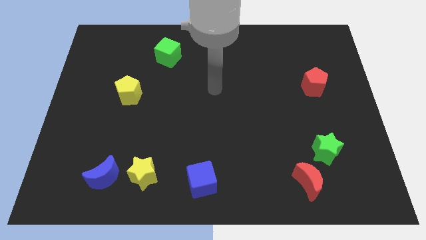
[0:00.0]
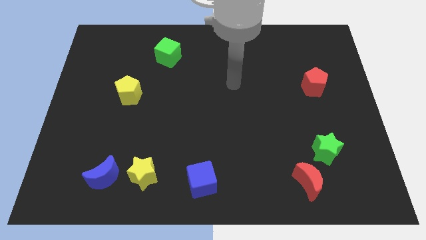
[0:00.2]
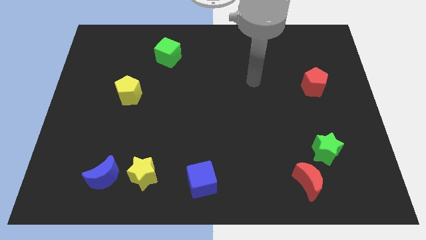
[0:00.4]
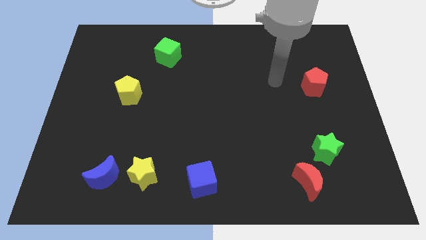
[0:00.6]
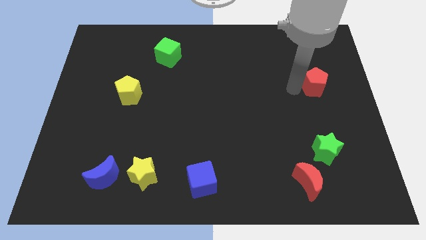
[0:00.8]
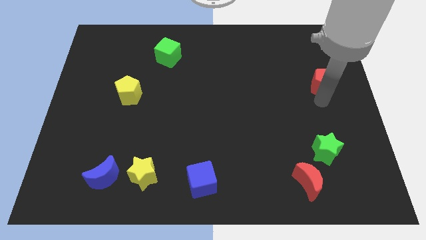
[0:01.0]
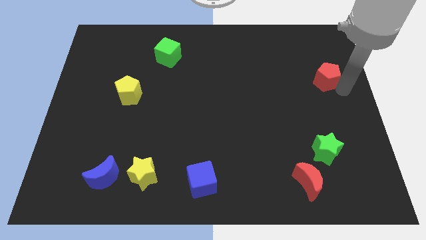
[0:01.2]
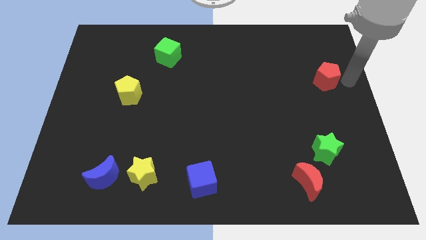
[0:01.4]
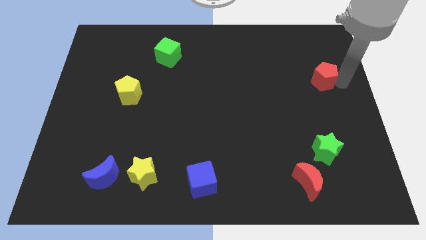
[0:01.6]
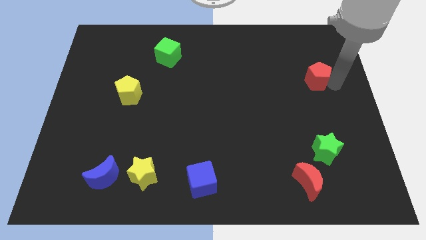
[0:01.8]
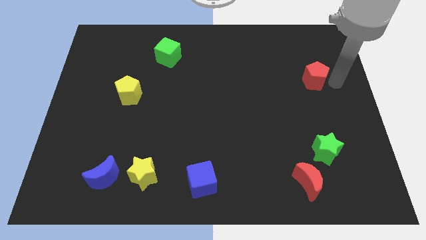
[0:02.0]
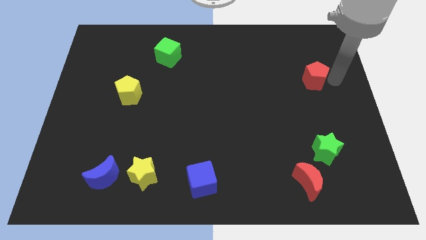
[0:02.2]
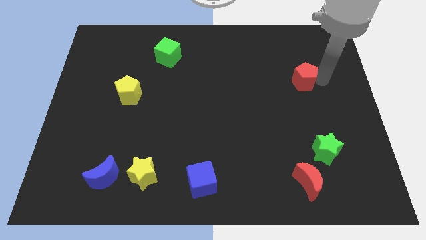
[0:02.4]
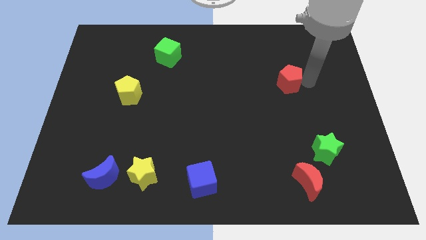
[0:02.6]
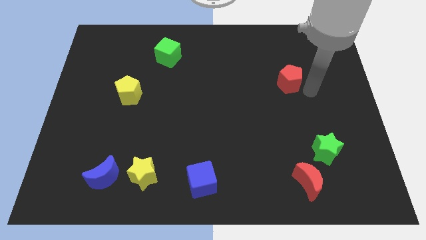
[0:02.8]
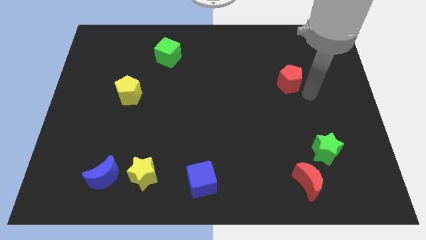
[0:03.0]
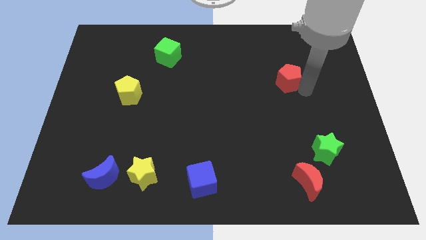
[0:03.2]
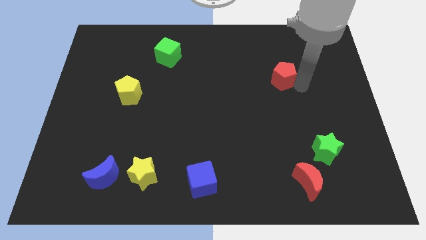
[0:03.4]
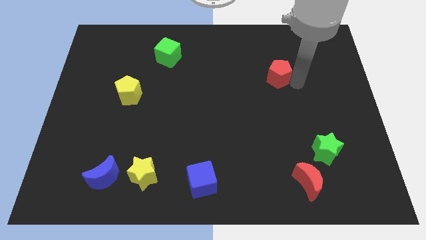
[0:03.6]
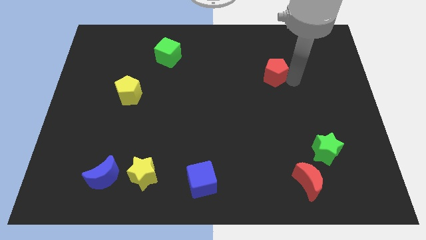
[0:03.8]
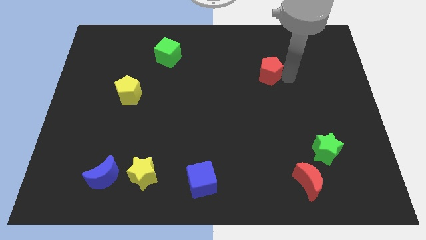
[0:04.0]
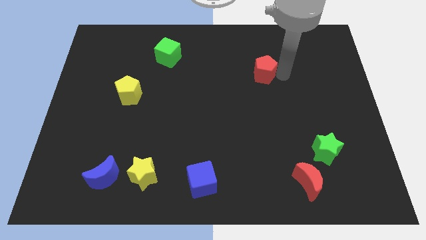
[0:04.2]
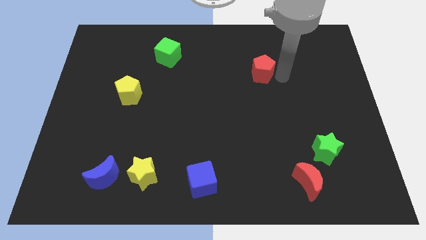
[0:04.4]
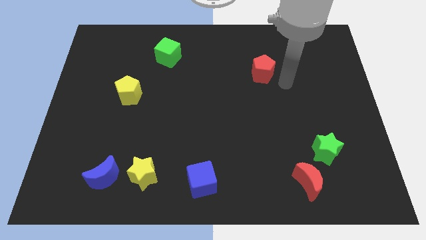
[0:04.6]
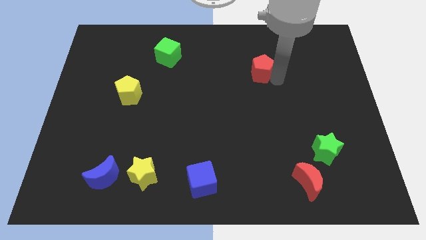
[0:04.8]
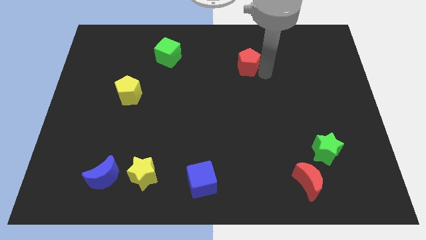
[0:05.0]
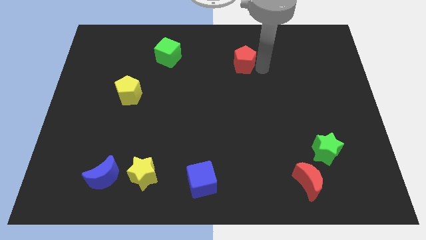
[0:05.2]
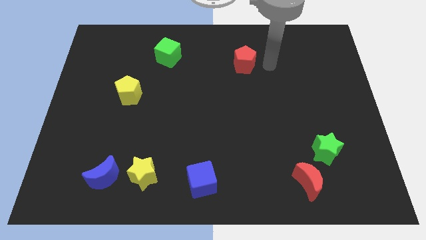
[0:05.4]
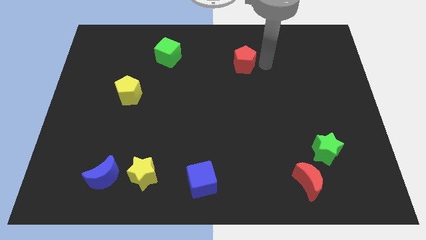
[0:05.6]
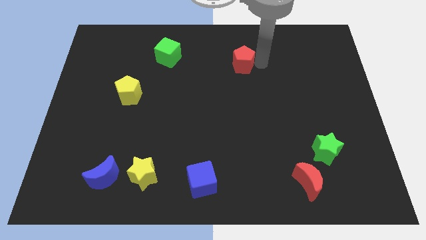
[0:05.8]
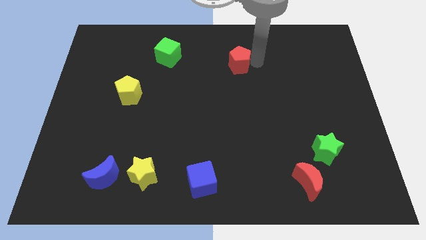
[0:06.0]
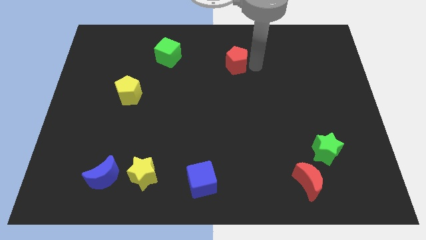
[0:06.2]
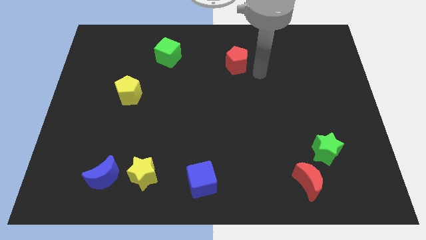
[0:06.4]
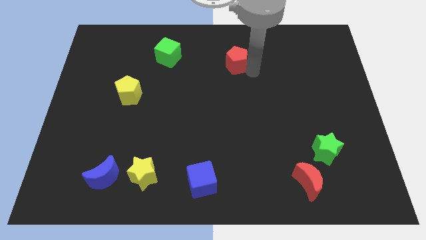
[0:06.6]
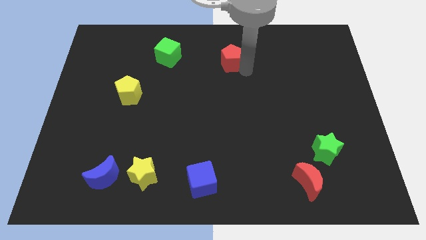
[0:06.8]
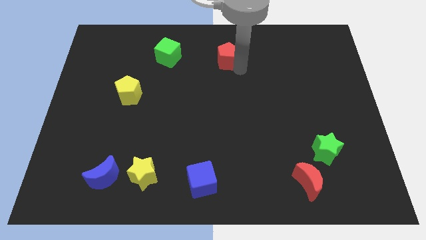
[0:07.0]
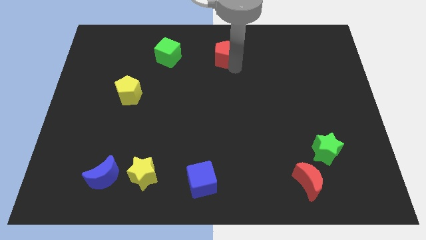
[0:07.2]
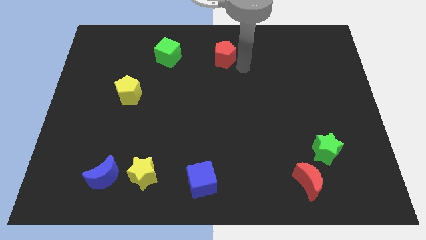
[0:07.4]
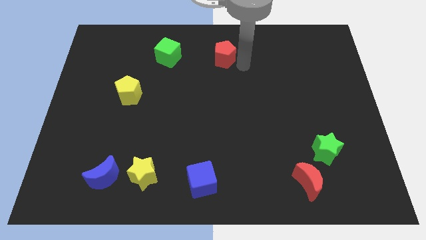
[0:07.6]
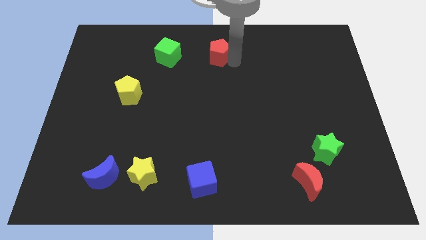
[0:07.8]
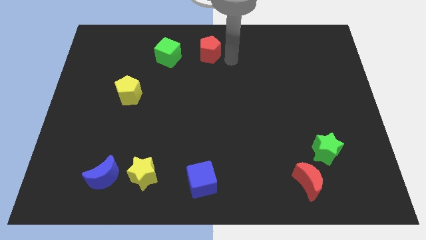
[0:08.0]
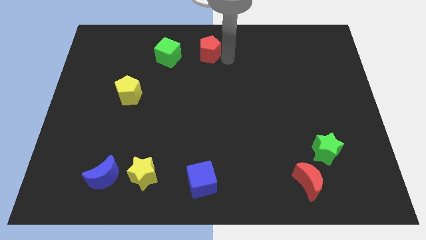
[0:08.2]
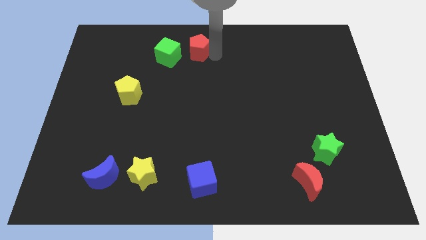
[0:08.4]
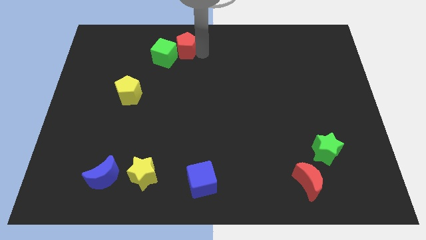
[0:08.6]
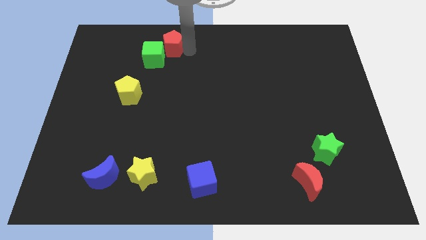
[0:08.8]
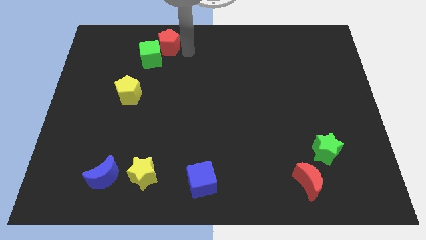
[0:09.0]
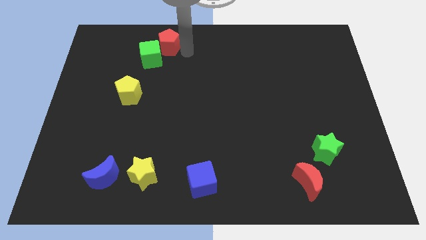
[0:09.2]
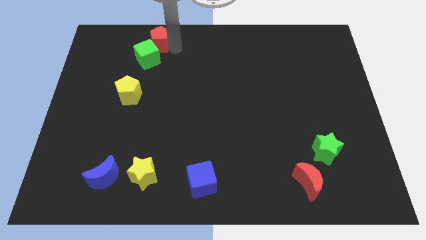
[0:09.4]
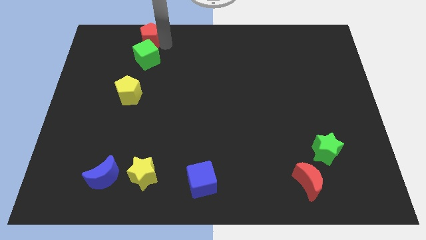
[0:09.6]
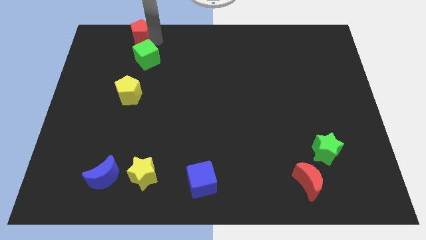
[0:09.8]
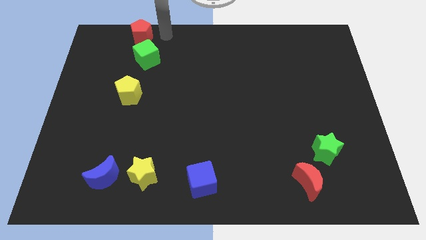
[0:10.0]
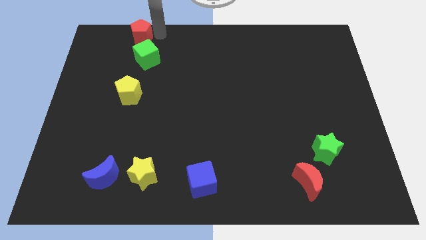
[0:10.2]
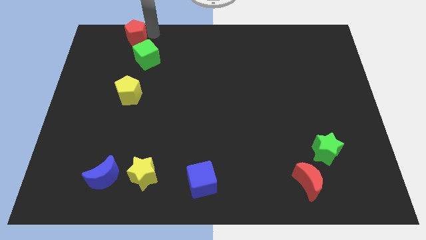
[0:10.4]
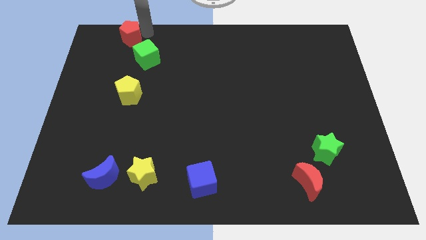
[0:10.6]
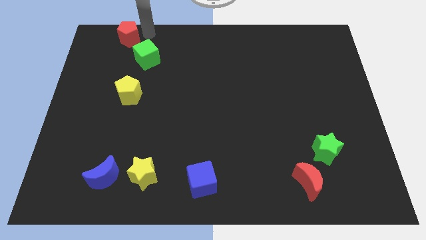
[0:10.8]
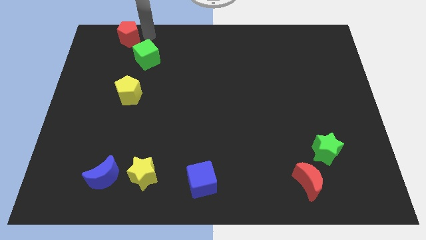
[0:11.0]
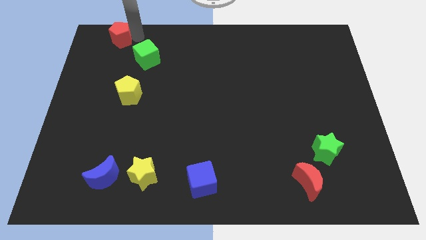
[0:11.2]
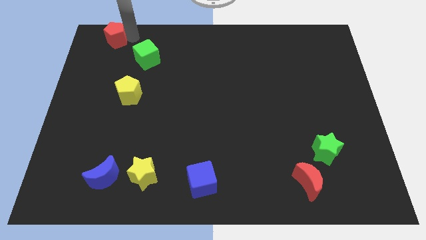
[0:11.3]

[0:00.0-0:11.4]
push the red pentagon to the top left

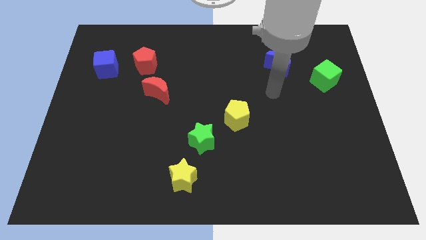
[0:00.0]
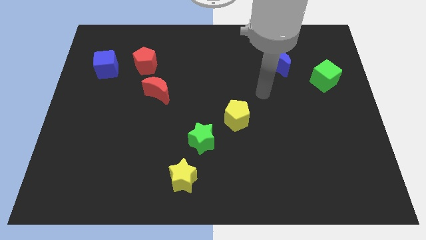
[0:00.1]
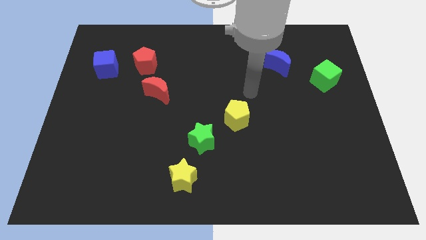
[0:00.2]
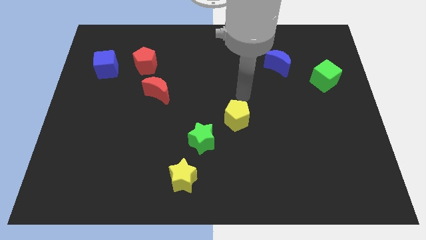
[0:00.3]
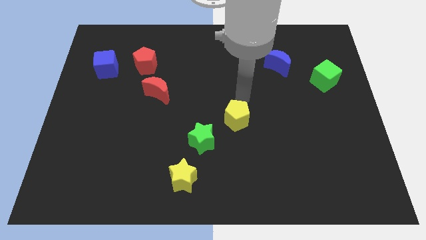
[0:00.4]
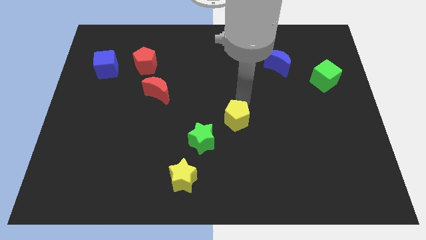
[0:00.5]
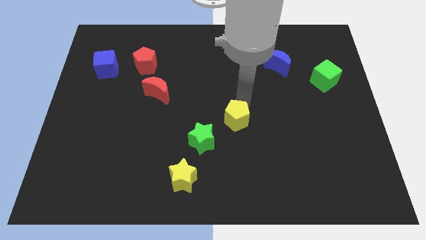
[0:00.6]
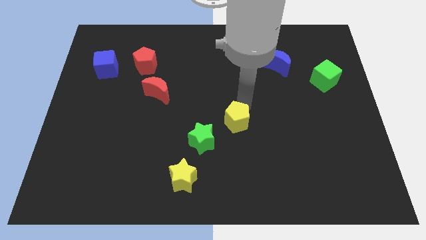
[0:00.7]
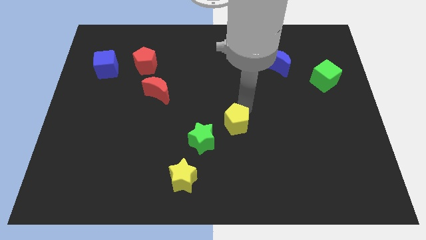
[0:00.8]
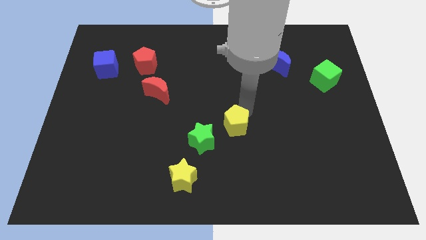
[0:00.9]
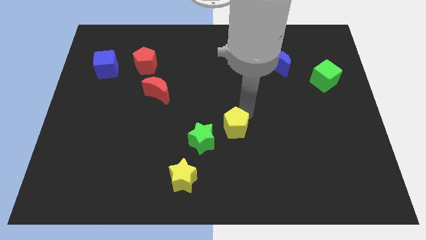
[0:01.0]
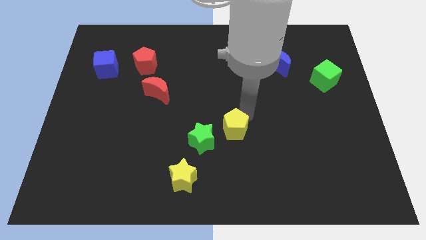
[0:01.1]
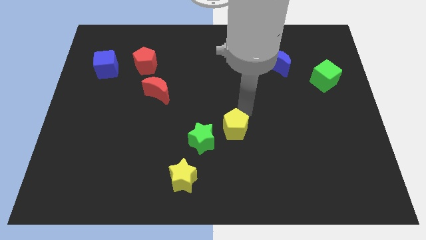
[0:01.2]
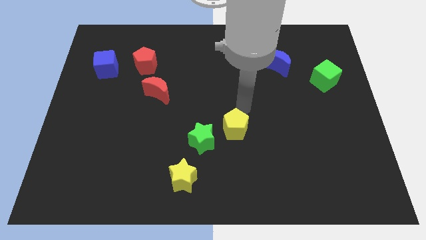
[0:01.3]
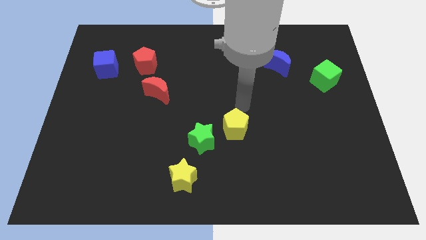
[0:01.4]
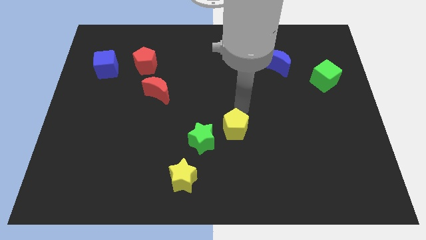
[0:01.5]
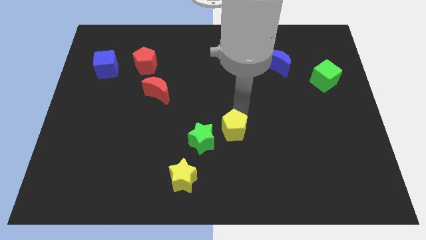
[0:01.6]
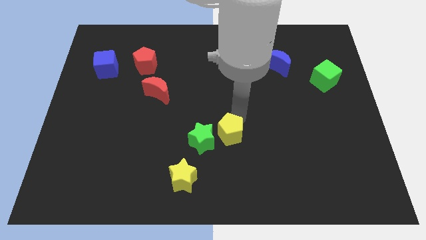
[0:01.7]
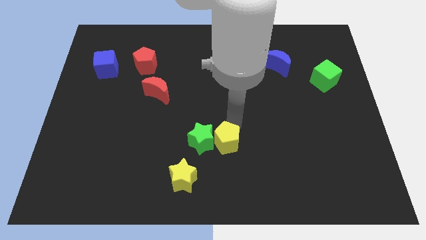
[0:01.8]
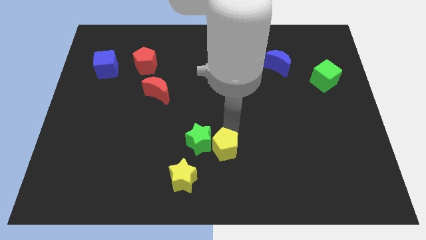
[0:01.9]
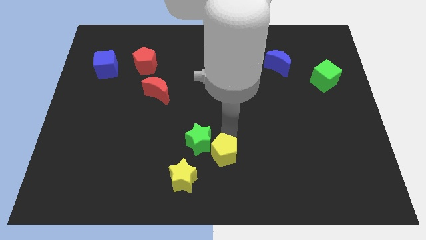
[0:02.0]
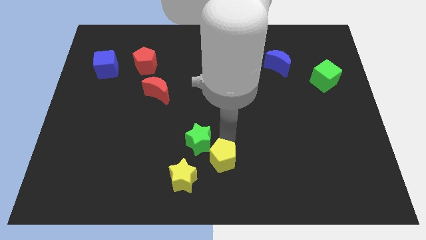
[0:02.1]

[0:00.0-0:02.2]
move the yellow pentagon to the bottom side
